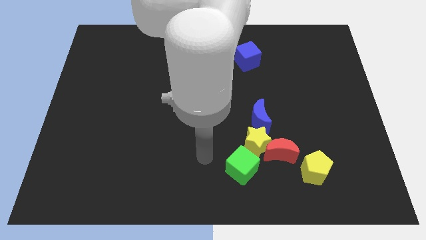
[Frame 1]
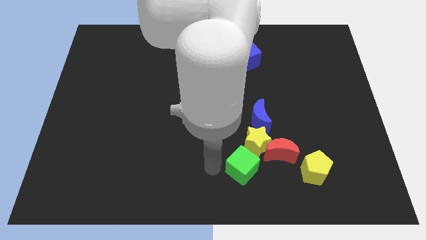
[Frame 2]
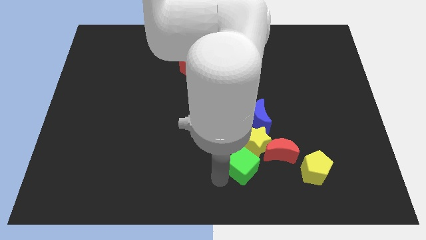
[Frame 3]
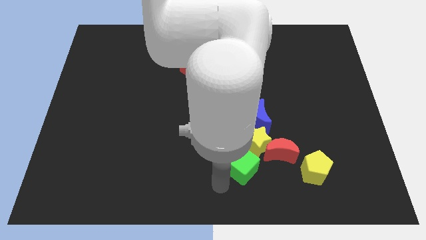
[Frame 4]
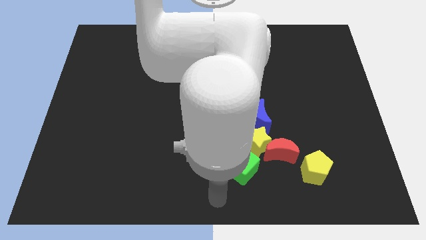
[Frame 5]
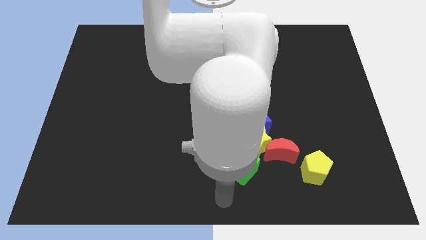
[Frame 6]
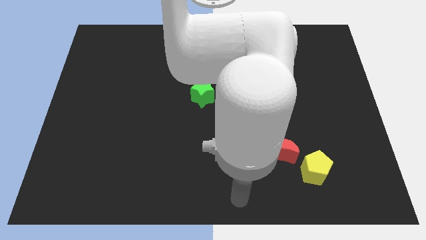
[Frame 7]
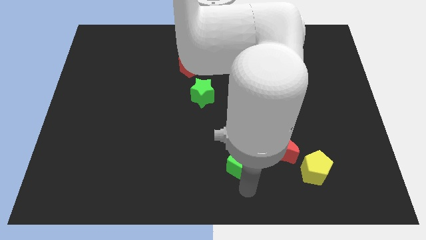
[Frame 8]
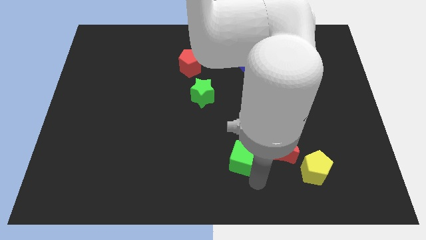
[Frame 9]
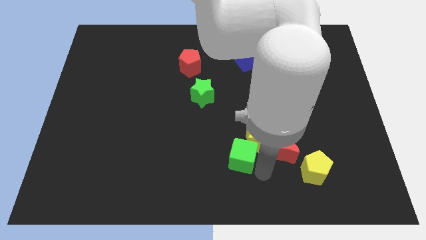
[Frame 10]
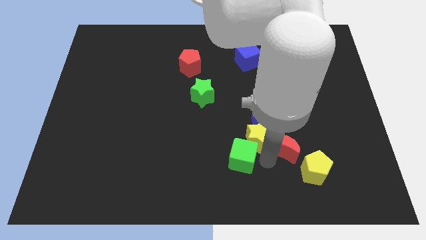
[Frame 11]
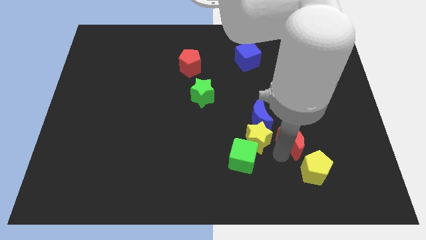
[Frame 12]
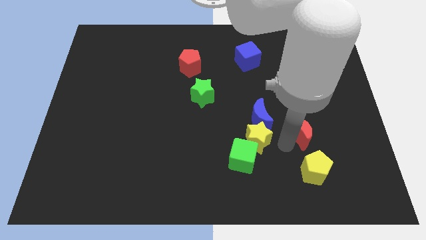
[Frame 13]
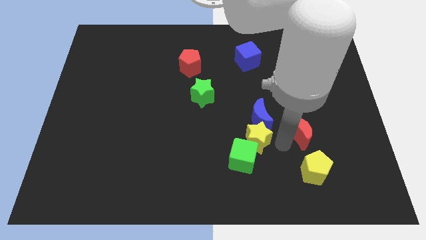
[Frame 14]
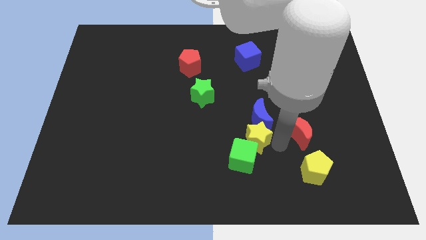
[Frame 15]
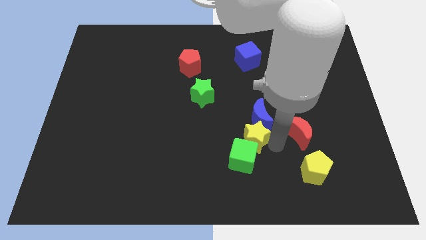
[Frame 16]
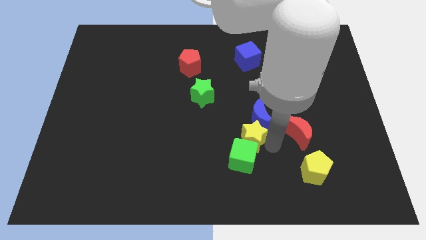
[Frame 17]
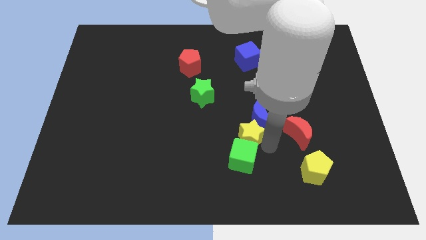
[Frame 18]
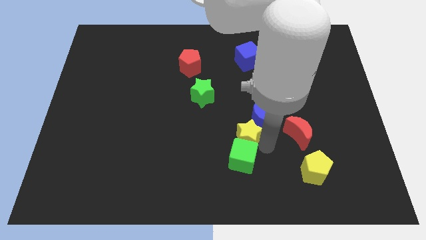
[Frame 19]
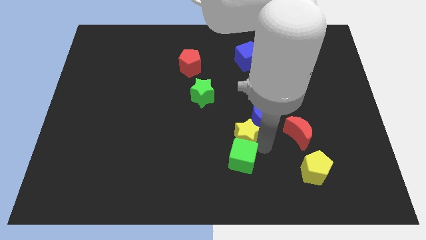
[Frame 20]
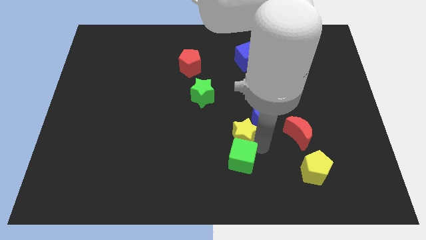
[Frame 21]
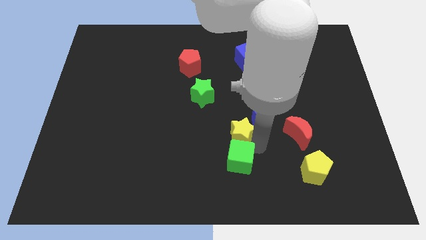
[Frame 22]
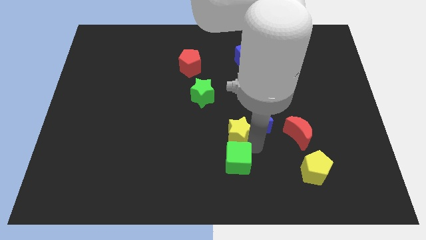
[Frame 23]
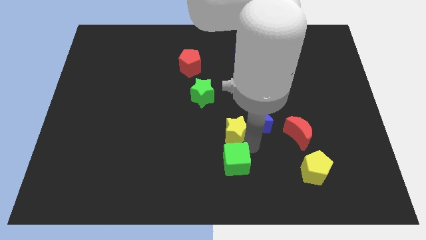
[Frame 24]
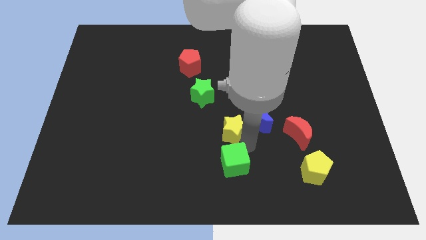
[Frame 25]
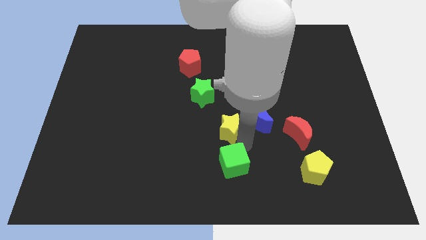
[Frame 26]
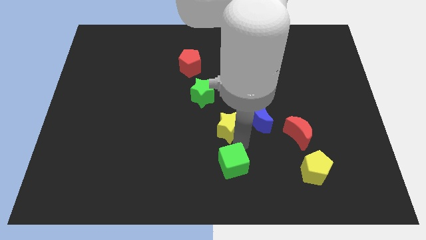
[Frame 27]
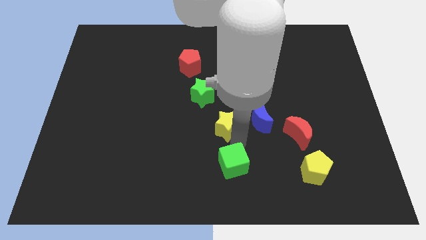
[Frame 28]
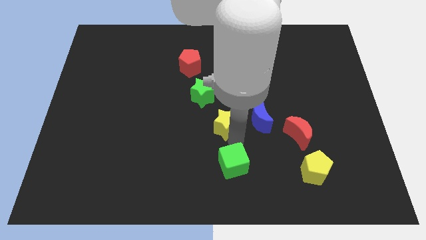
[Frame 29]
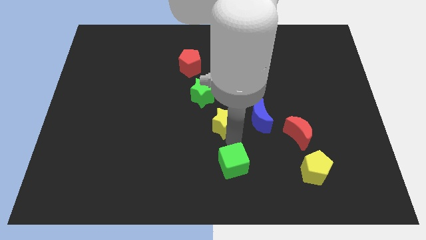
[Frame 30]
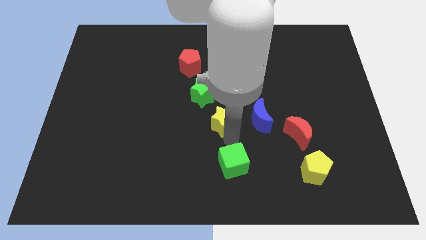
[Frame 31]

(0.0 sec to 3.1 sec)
move the yellow star away from the red moon, green cube, and blue moon

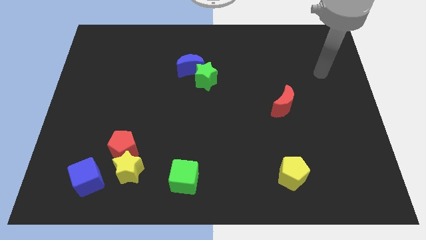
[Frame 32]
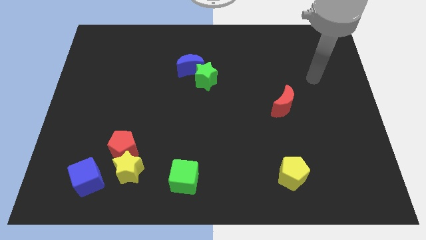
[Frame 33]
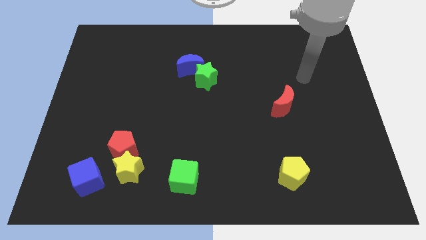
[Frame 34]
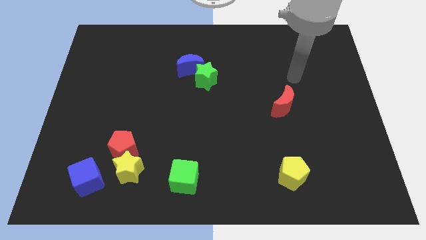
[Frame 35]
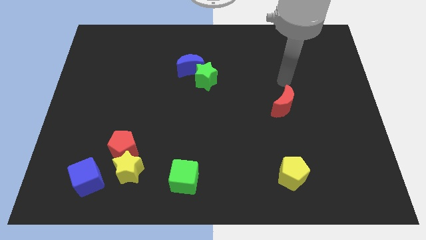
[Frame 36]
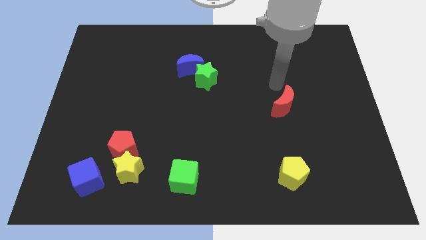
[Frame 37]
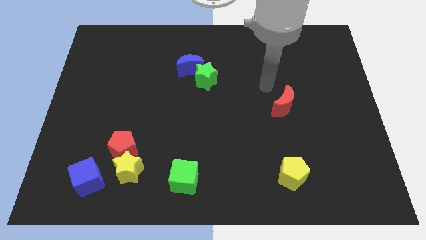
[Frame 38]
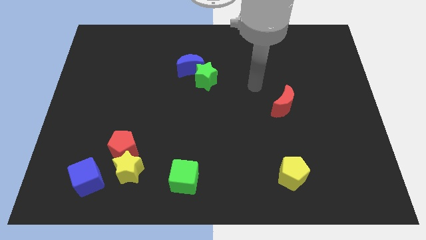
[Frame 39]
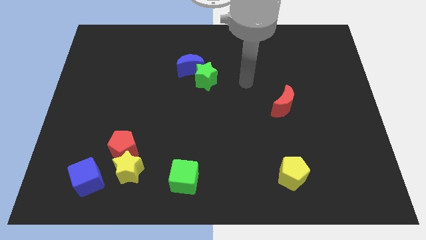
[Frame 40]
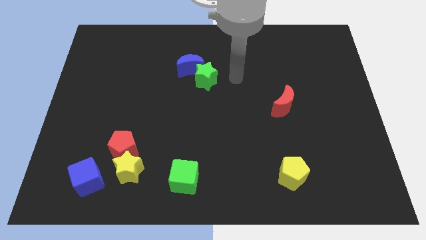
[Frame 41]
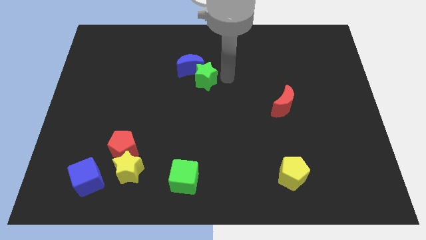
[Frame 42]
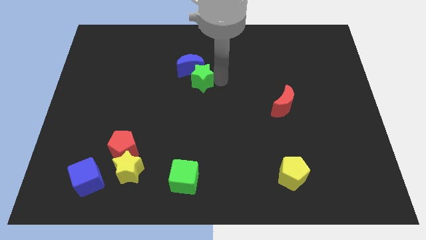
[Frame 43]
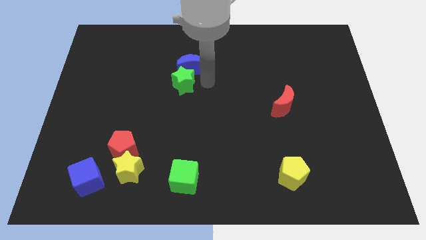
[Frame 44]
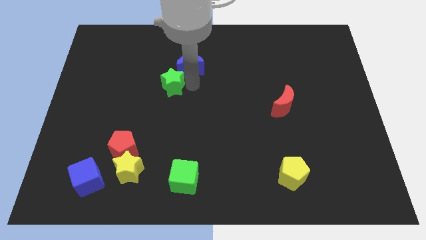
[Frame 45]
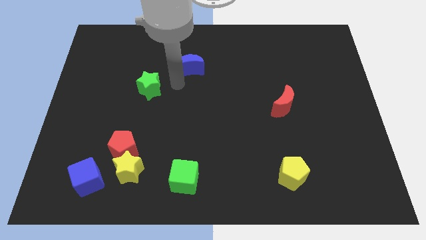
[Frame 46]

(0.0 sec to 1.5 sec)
move the blue moon away from the green star

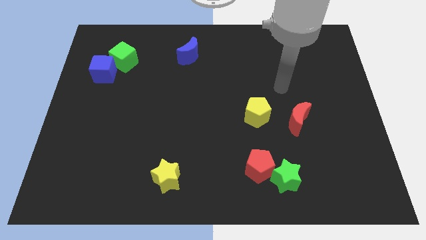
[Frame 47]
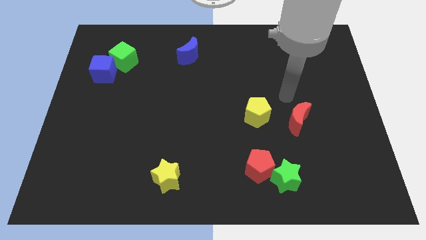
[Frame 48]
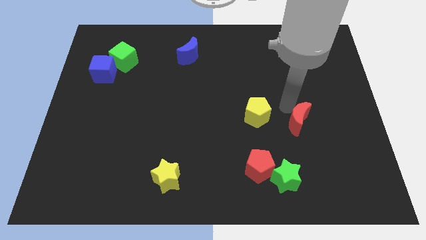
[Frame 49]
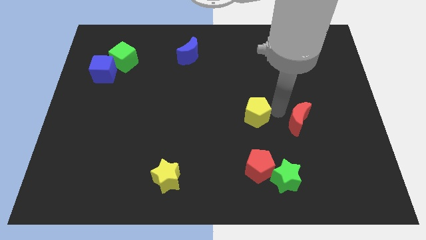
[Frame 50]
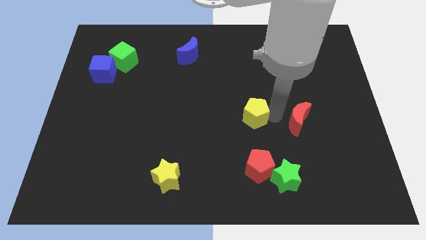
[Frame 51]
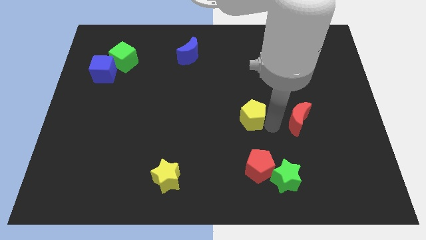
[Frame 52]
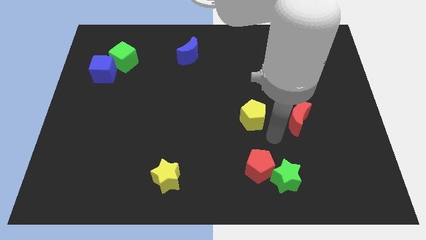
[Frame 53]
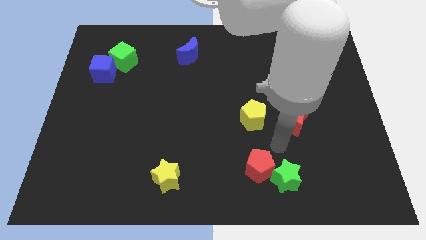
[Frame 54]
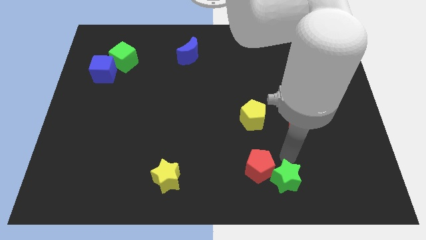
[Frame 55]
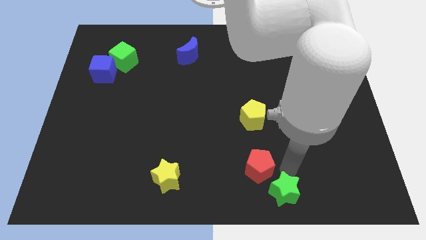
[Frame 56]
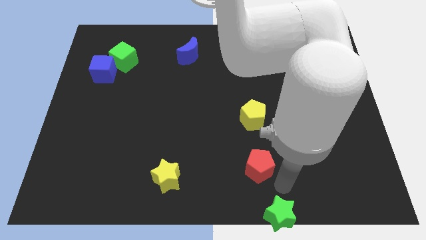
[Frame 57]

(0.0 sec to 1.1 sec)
pull the red pentagon apart from the green star

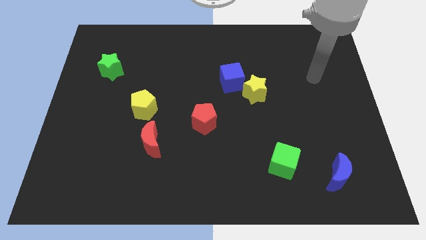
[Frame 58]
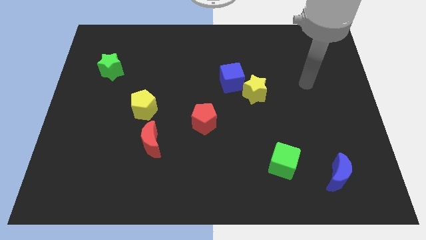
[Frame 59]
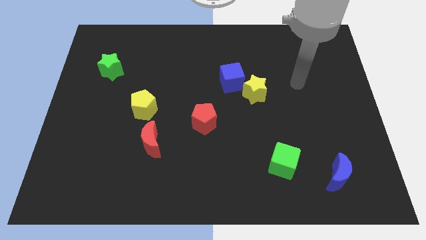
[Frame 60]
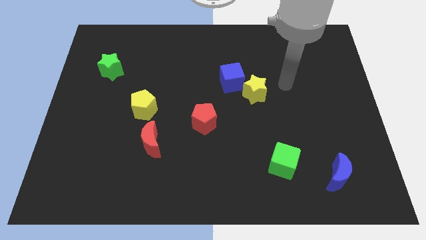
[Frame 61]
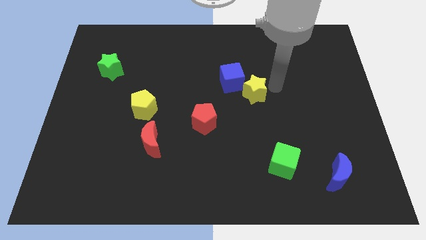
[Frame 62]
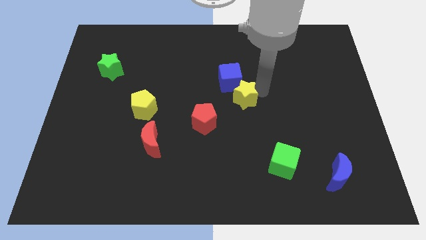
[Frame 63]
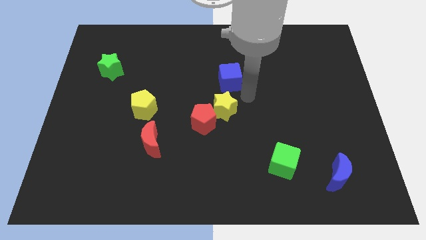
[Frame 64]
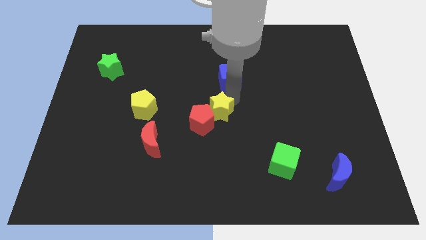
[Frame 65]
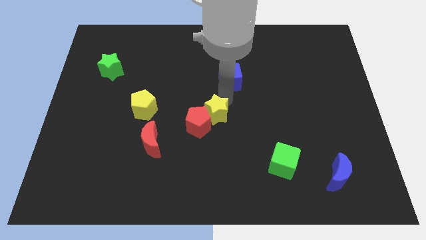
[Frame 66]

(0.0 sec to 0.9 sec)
move the blue cube away from the yellow star

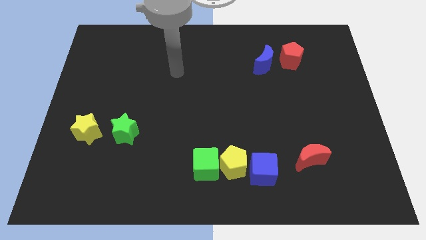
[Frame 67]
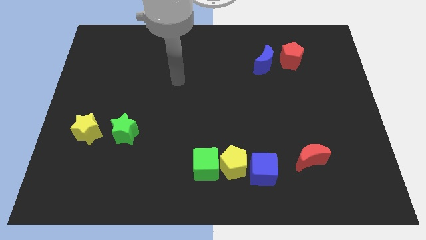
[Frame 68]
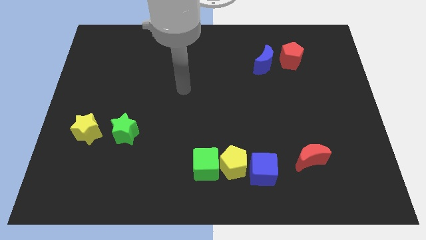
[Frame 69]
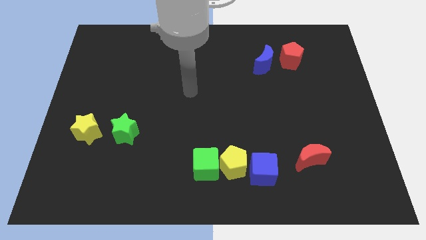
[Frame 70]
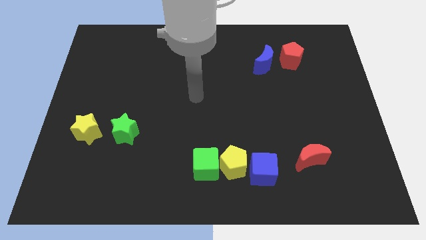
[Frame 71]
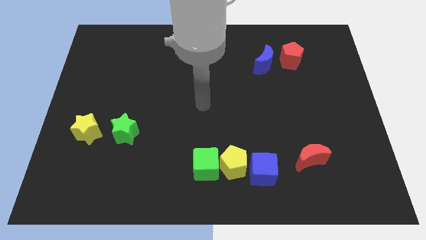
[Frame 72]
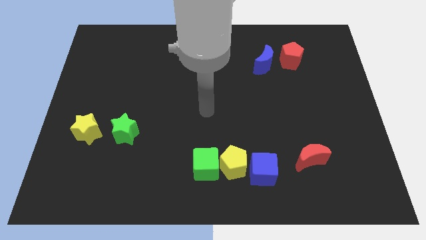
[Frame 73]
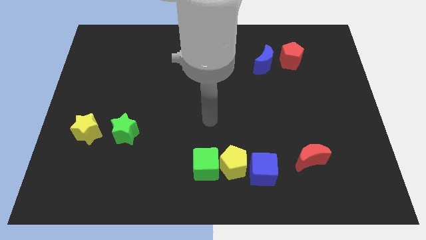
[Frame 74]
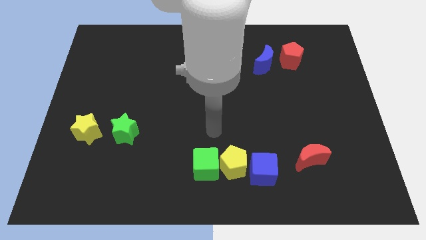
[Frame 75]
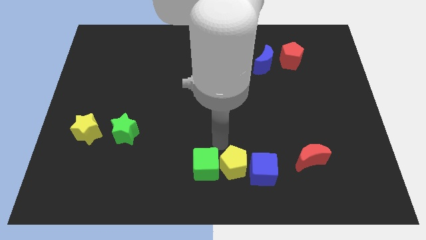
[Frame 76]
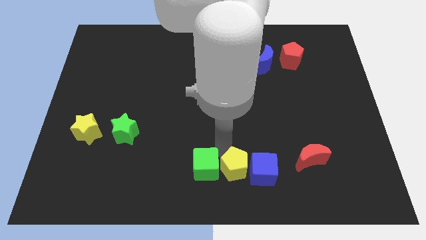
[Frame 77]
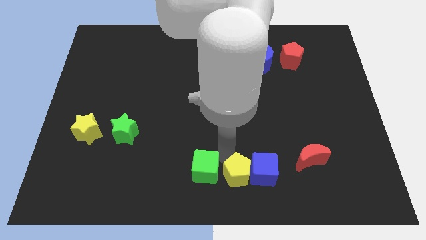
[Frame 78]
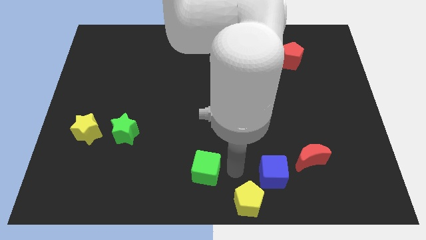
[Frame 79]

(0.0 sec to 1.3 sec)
separate the green cube from the yellow pentagon

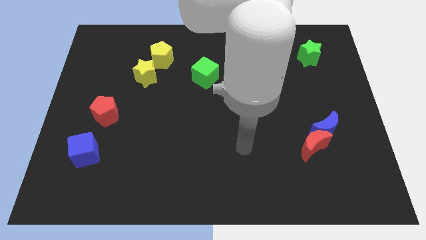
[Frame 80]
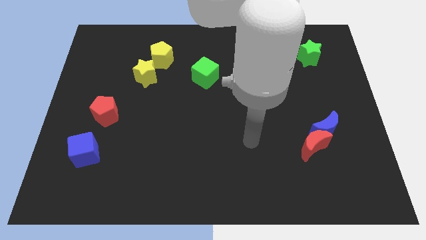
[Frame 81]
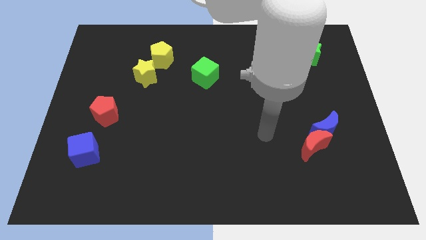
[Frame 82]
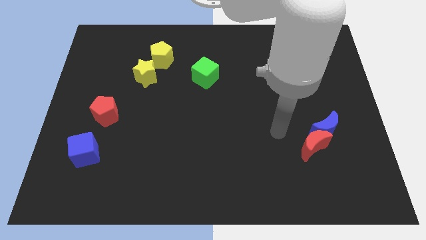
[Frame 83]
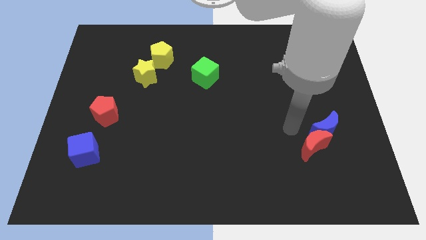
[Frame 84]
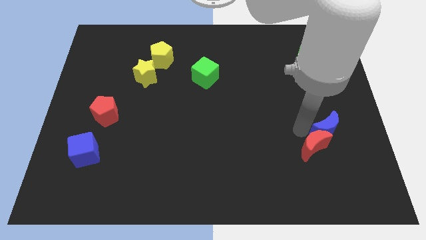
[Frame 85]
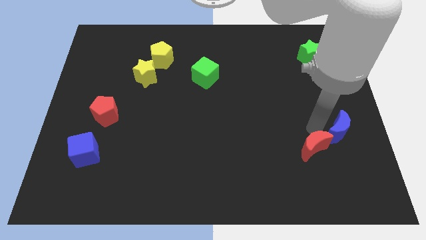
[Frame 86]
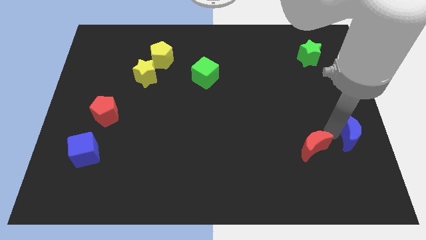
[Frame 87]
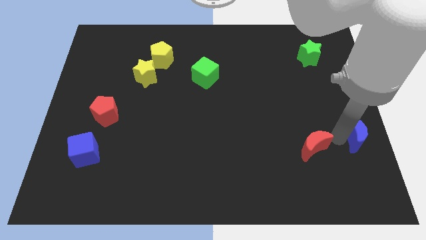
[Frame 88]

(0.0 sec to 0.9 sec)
move the red moon away from the blue moon

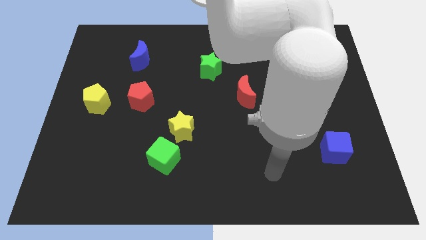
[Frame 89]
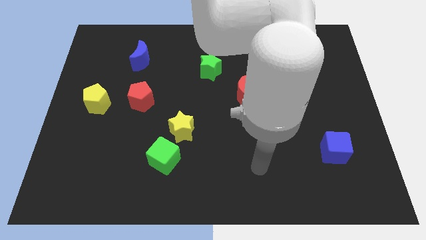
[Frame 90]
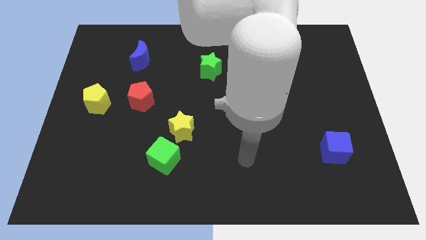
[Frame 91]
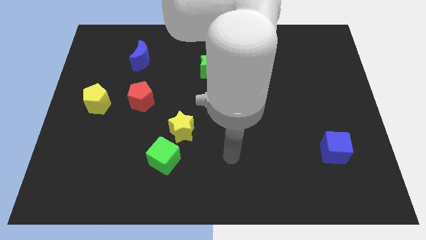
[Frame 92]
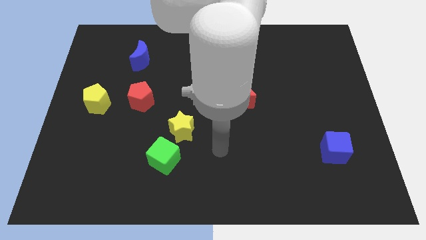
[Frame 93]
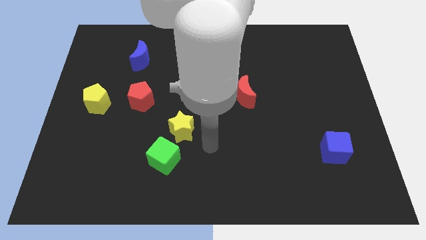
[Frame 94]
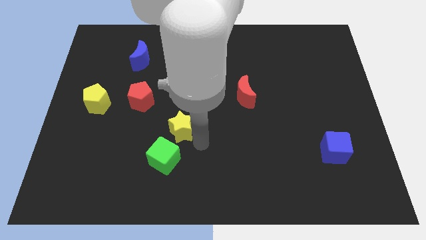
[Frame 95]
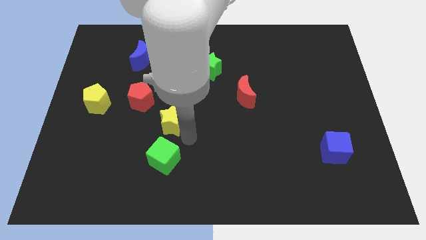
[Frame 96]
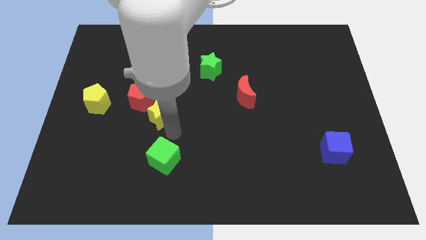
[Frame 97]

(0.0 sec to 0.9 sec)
move the green cube away from the yellow star
